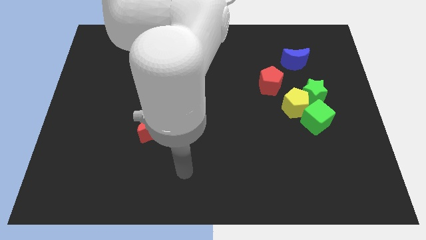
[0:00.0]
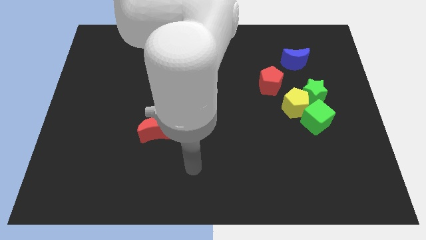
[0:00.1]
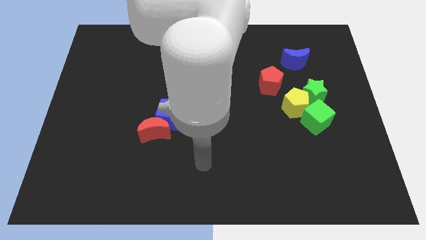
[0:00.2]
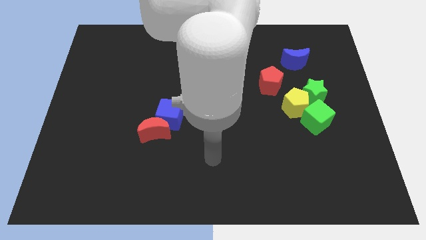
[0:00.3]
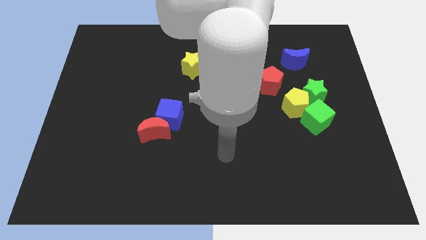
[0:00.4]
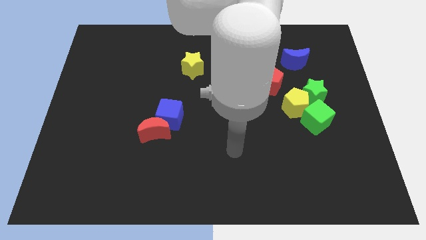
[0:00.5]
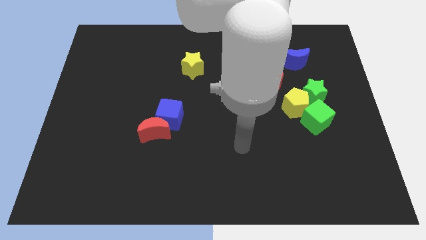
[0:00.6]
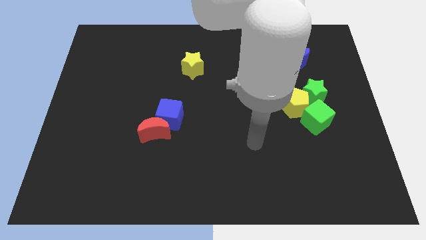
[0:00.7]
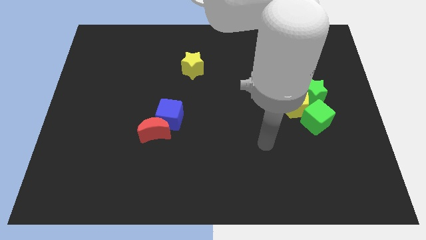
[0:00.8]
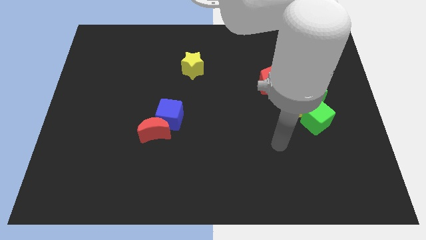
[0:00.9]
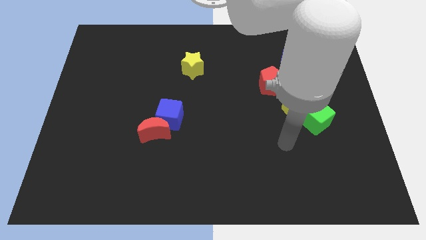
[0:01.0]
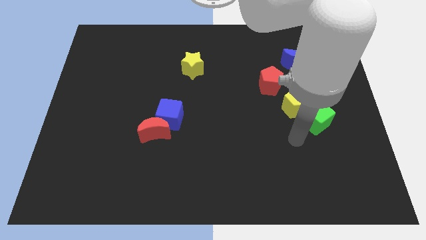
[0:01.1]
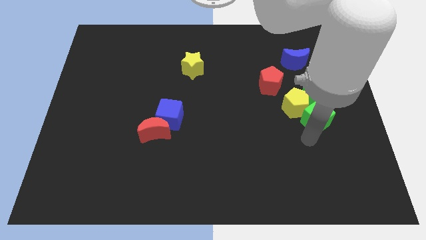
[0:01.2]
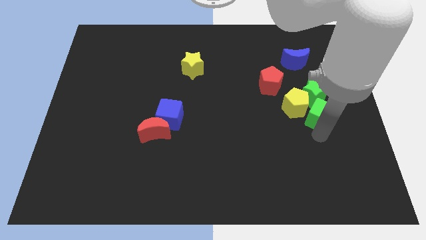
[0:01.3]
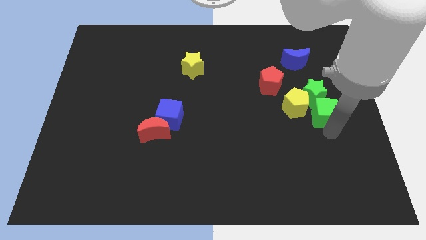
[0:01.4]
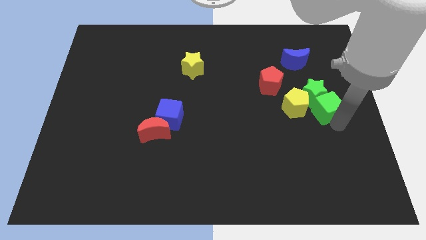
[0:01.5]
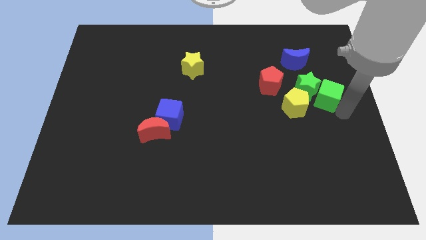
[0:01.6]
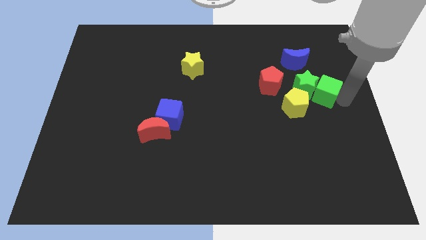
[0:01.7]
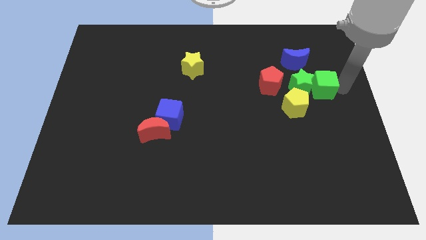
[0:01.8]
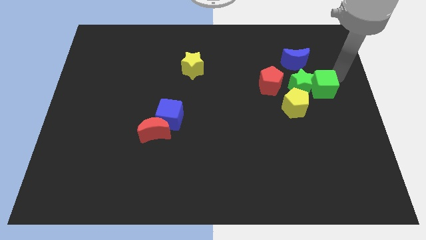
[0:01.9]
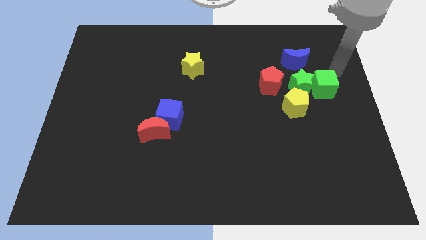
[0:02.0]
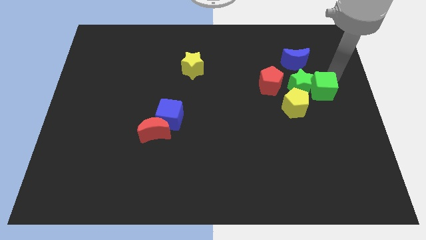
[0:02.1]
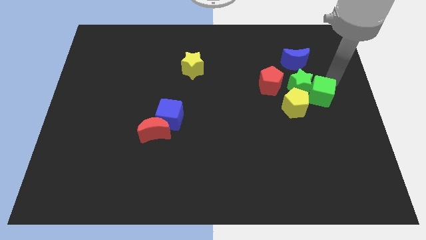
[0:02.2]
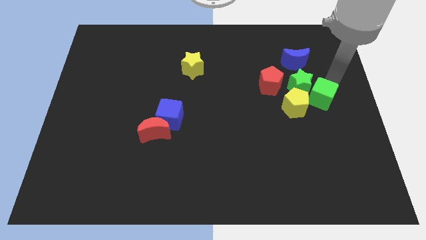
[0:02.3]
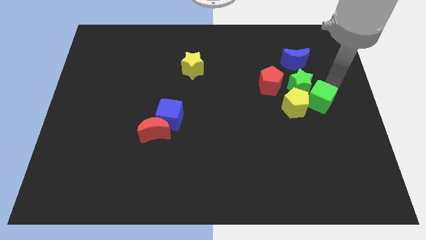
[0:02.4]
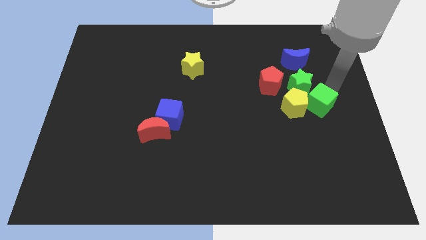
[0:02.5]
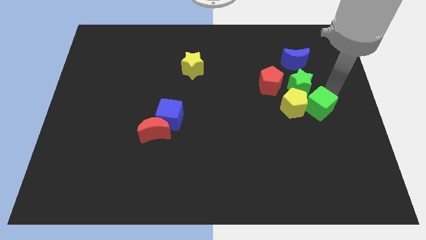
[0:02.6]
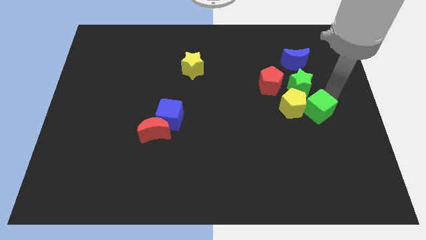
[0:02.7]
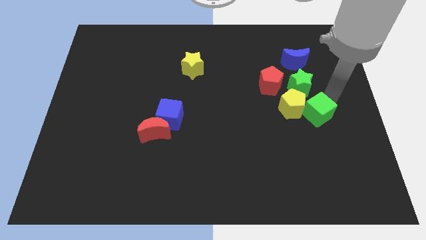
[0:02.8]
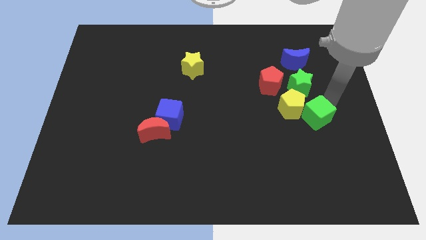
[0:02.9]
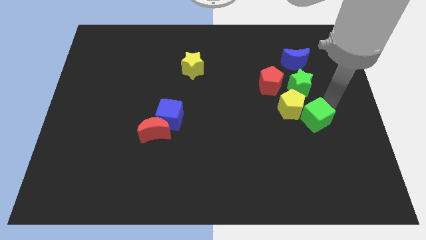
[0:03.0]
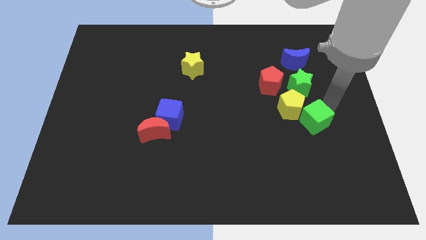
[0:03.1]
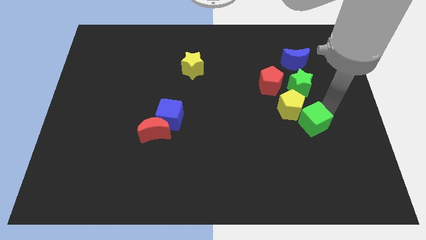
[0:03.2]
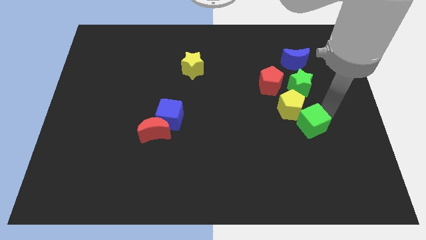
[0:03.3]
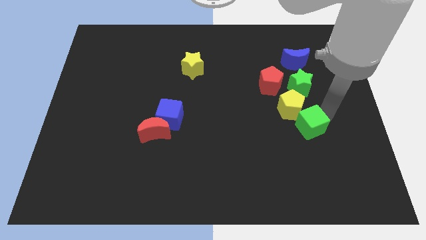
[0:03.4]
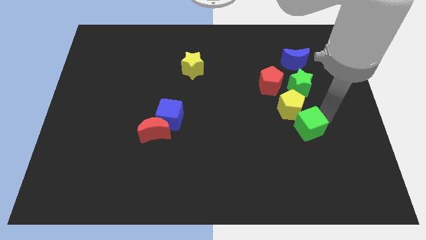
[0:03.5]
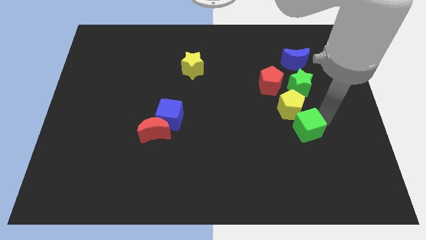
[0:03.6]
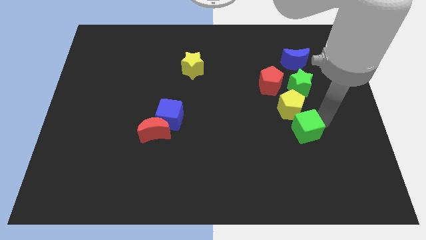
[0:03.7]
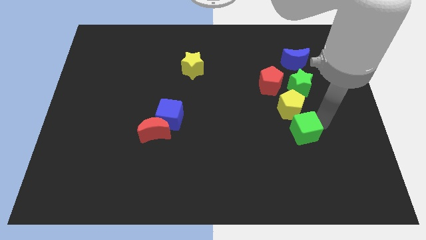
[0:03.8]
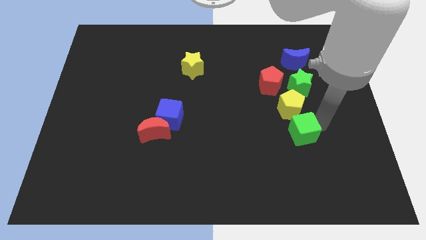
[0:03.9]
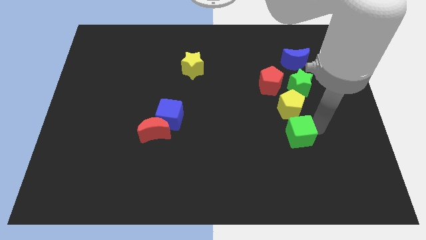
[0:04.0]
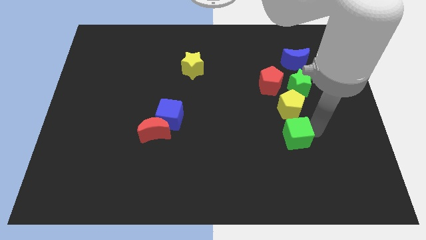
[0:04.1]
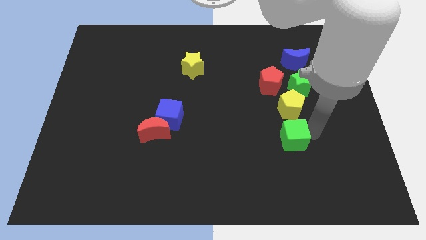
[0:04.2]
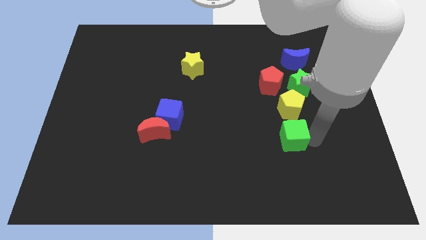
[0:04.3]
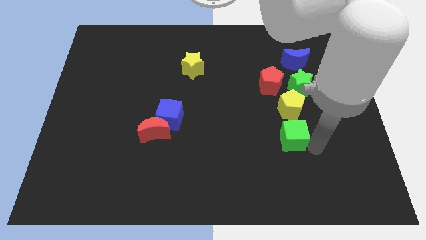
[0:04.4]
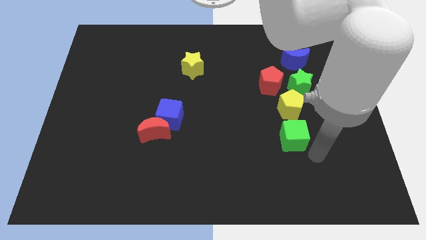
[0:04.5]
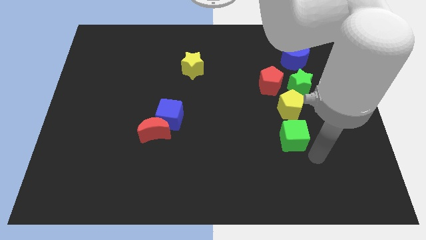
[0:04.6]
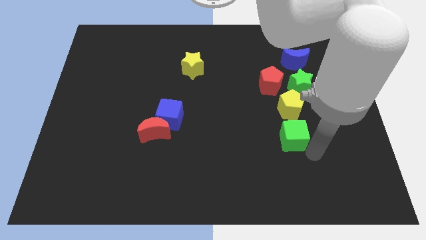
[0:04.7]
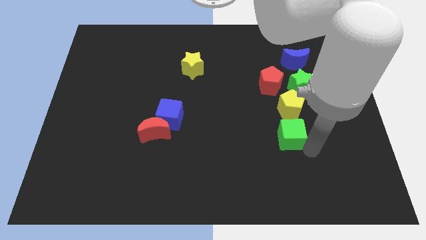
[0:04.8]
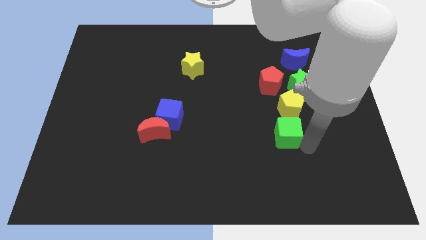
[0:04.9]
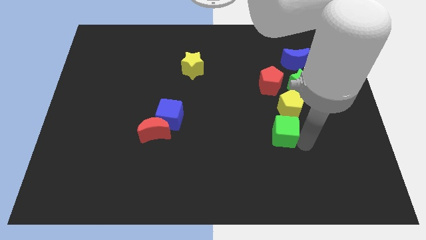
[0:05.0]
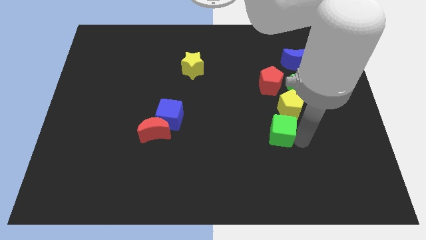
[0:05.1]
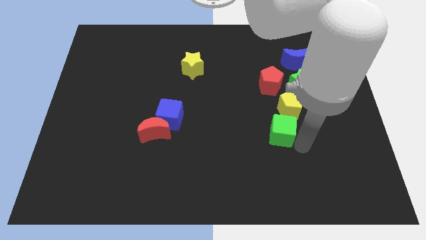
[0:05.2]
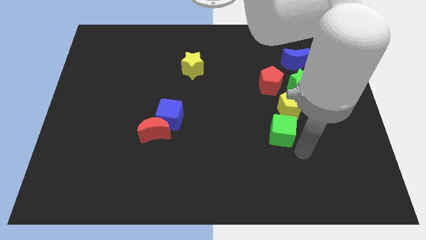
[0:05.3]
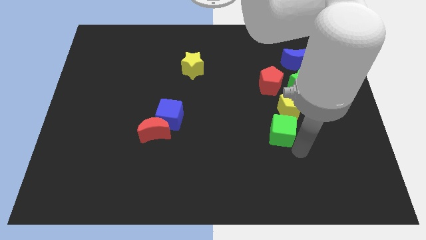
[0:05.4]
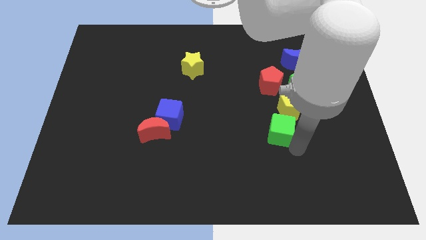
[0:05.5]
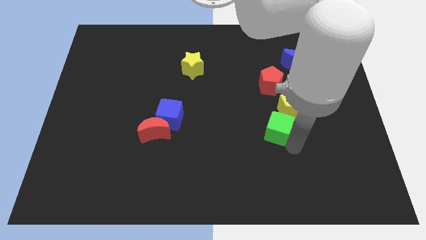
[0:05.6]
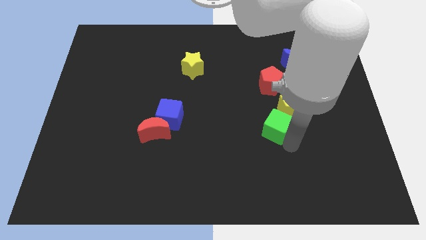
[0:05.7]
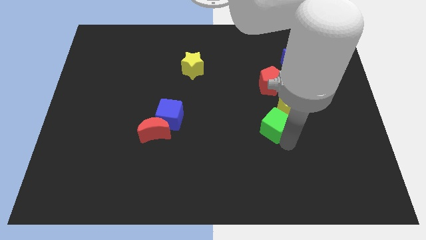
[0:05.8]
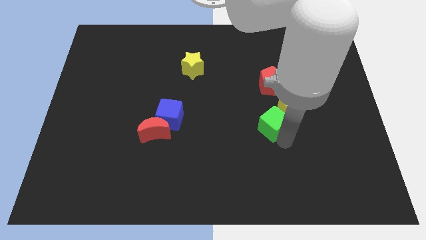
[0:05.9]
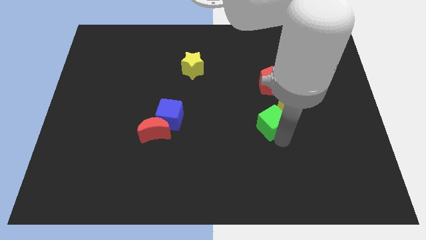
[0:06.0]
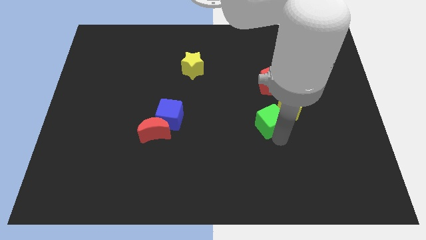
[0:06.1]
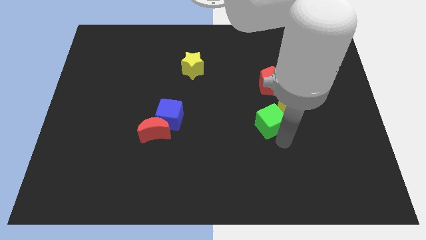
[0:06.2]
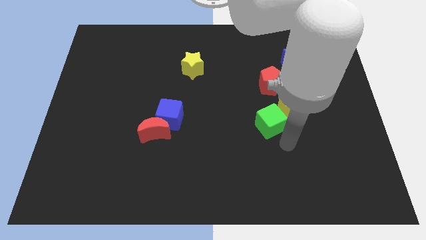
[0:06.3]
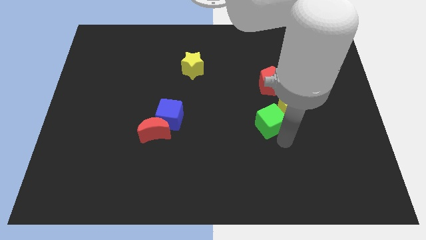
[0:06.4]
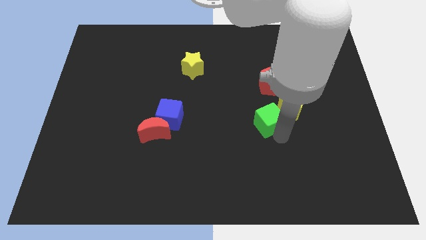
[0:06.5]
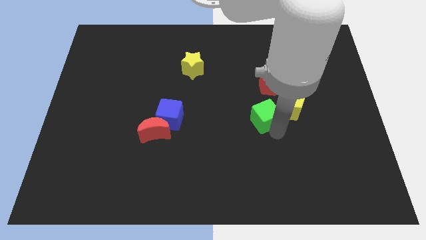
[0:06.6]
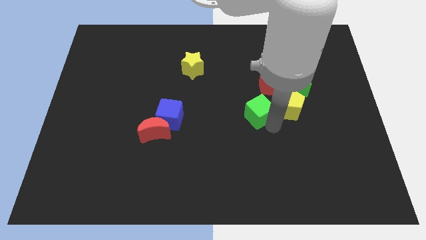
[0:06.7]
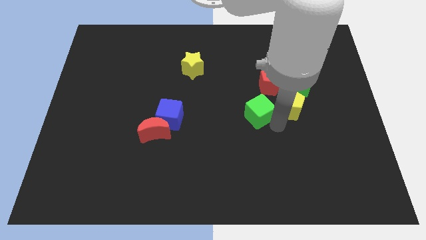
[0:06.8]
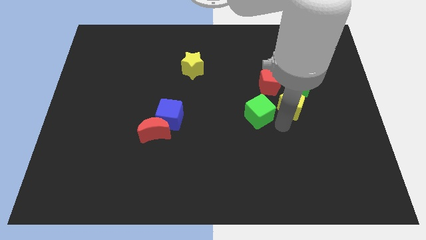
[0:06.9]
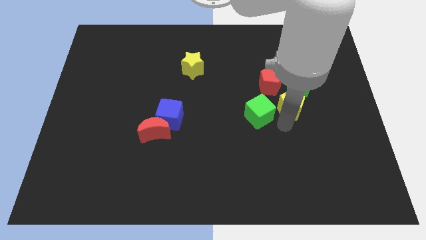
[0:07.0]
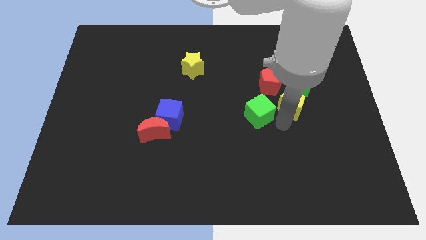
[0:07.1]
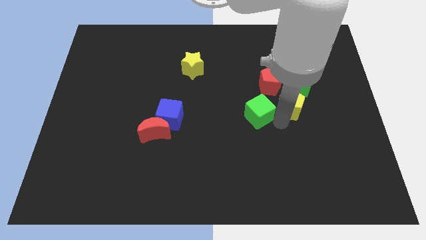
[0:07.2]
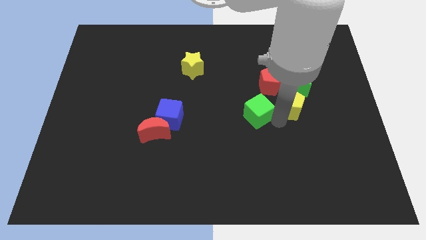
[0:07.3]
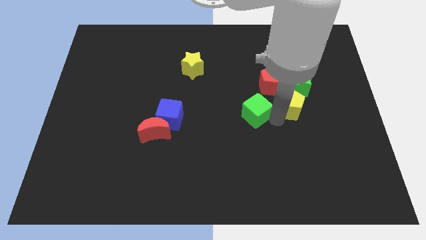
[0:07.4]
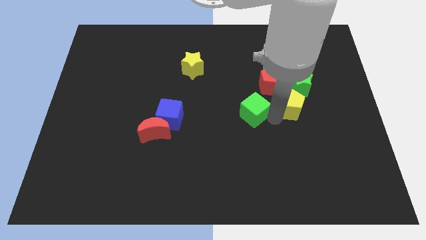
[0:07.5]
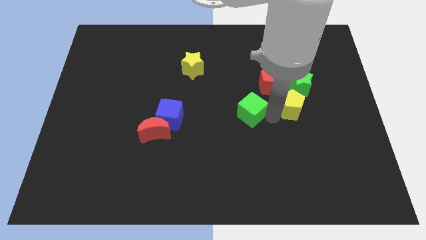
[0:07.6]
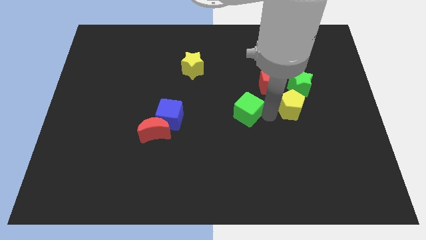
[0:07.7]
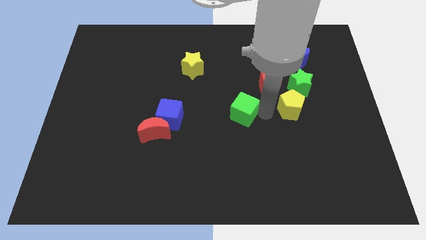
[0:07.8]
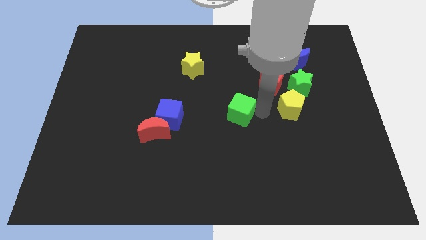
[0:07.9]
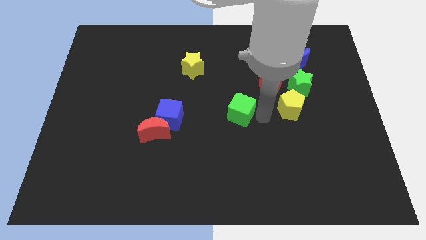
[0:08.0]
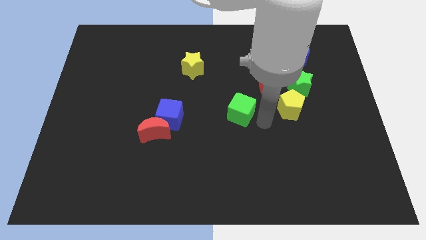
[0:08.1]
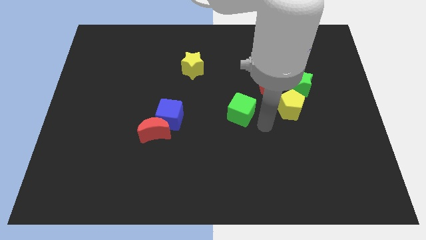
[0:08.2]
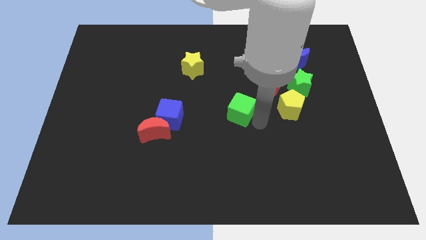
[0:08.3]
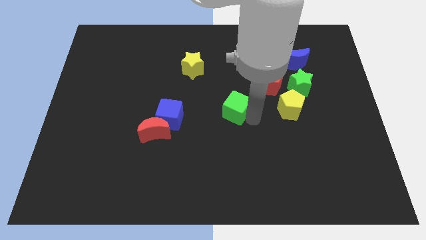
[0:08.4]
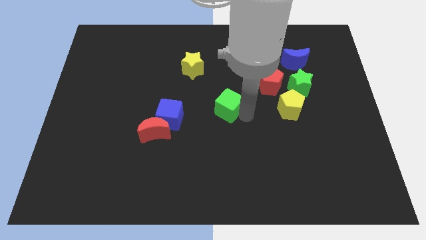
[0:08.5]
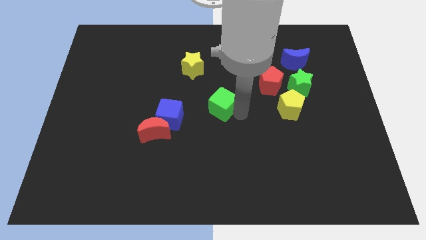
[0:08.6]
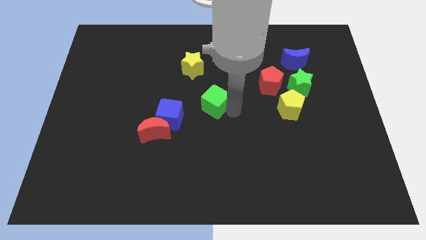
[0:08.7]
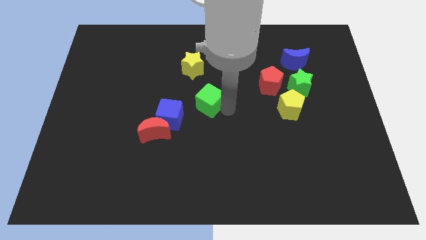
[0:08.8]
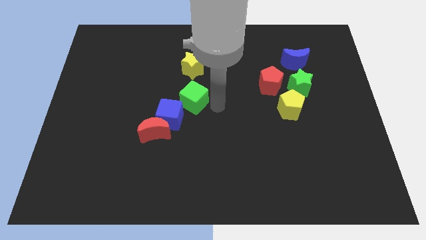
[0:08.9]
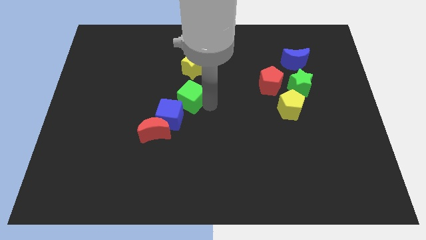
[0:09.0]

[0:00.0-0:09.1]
slide the green cube to the top side of the blue cube
